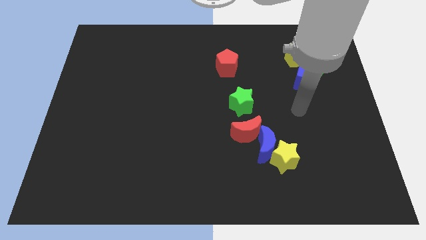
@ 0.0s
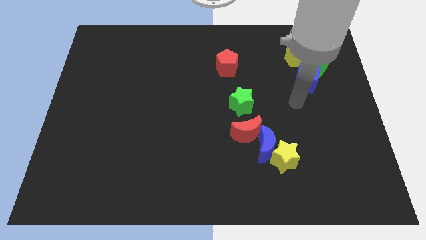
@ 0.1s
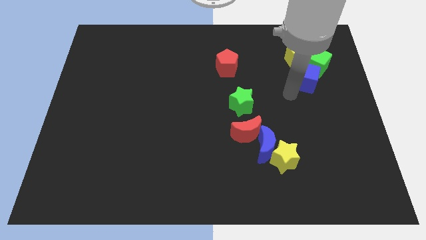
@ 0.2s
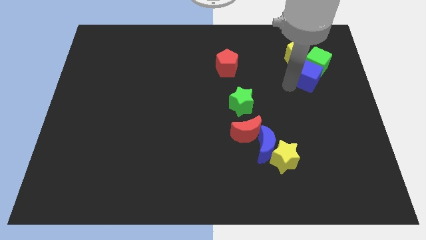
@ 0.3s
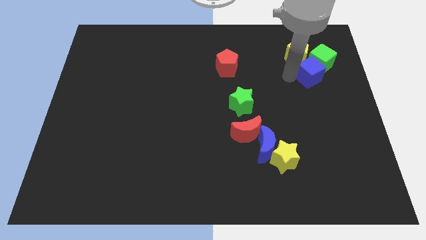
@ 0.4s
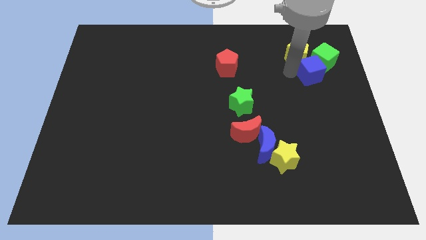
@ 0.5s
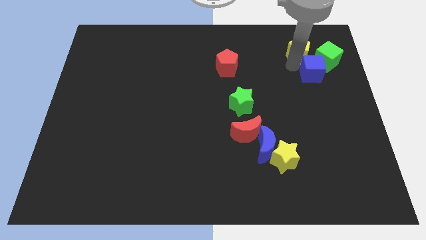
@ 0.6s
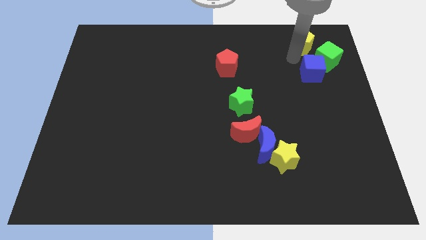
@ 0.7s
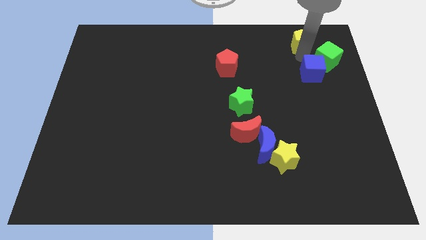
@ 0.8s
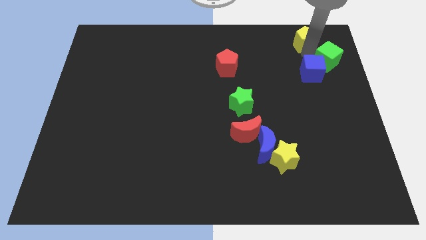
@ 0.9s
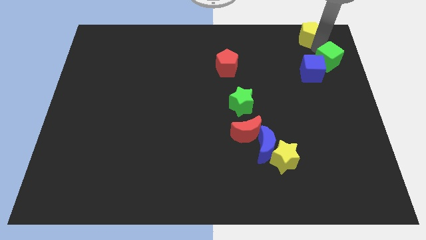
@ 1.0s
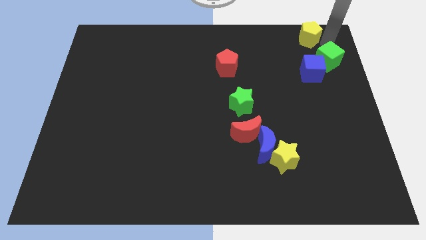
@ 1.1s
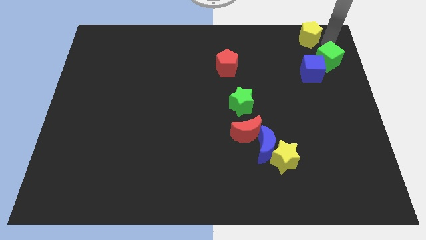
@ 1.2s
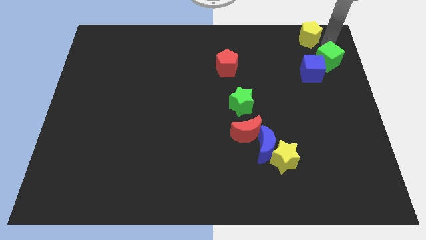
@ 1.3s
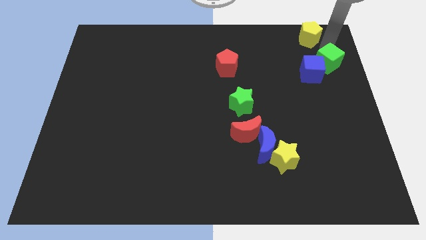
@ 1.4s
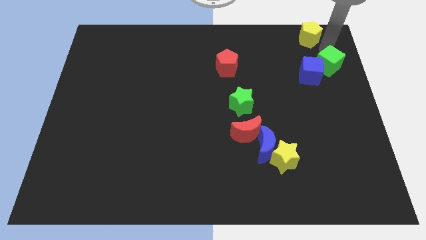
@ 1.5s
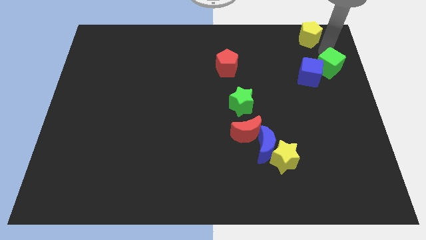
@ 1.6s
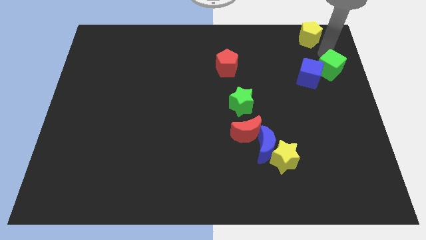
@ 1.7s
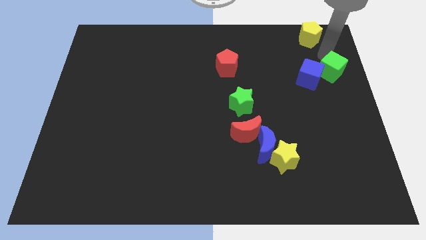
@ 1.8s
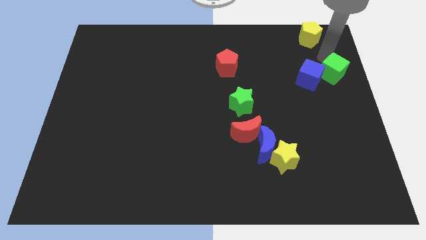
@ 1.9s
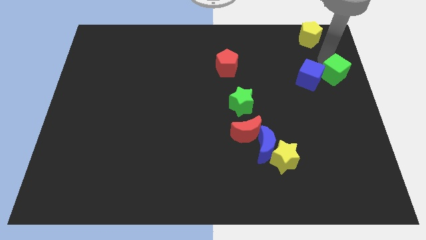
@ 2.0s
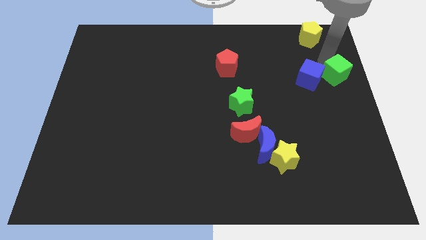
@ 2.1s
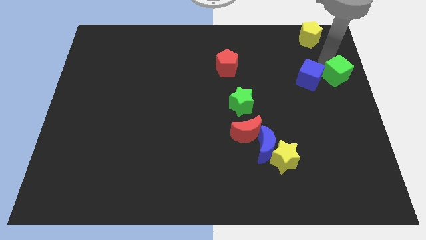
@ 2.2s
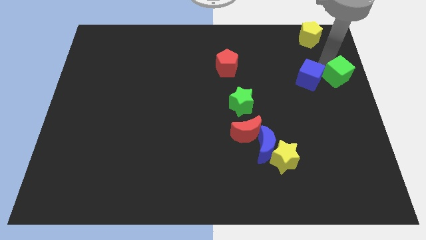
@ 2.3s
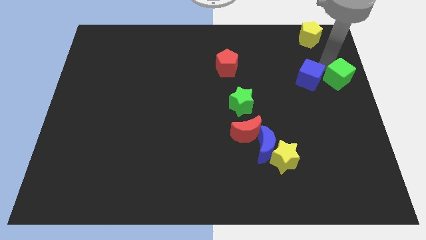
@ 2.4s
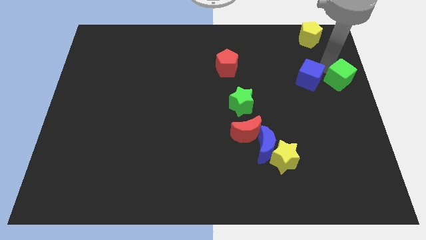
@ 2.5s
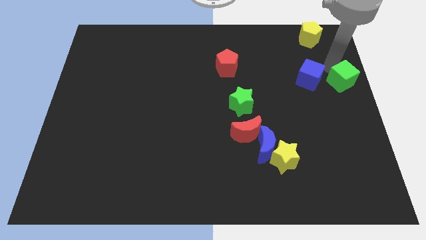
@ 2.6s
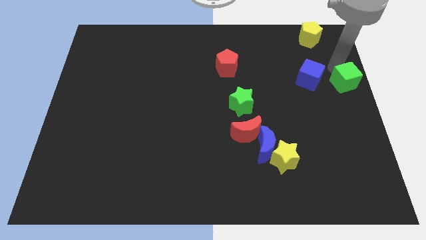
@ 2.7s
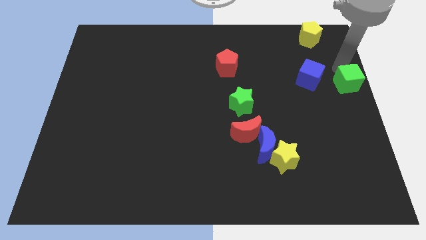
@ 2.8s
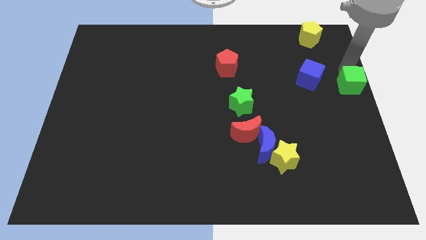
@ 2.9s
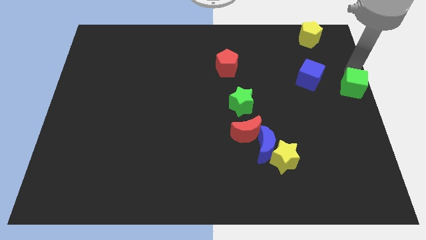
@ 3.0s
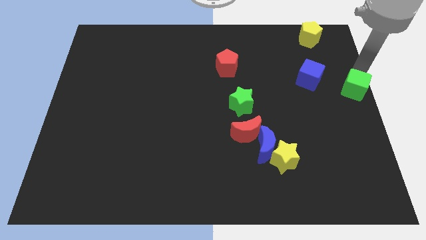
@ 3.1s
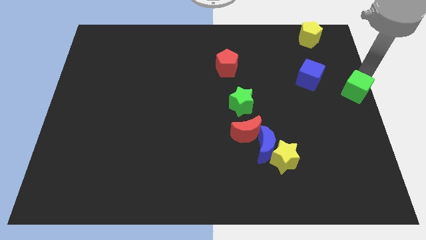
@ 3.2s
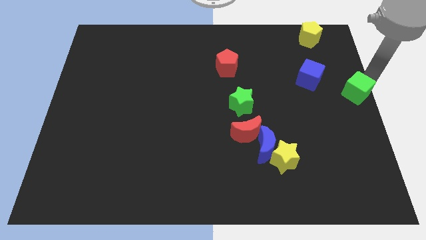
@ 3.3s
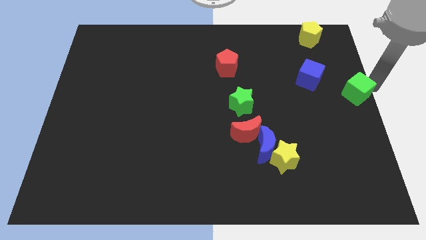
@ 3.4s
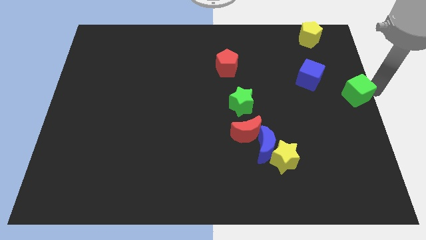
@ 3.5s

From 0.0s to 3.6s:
move the green cube down a little bit

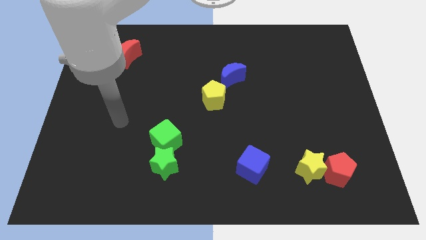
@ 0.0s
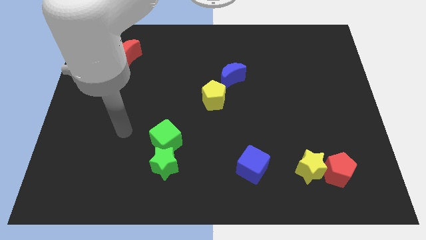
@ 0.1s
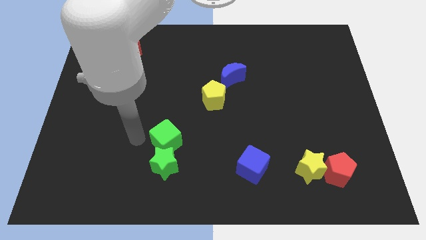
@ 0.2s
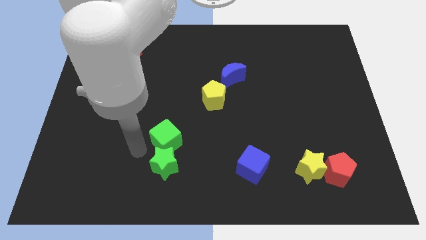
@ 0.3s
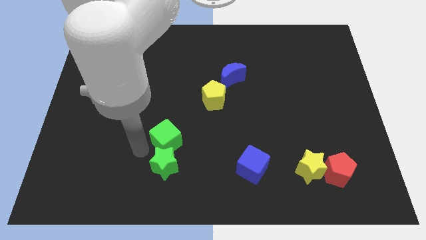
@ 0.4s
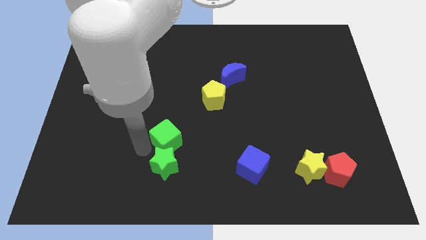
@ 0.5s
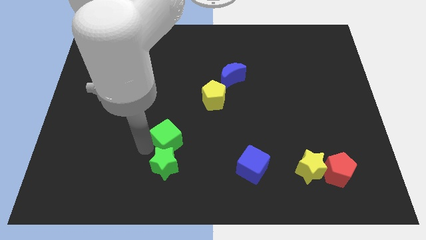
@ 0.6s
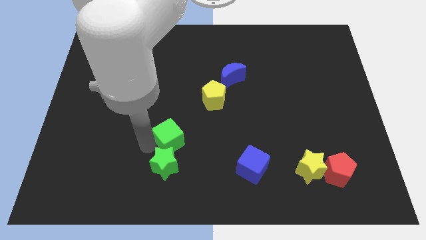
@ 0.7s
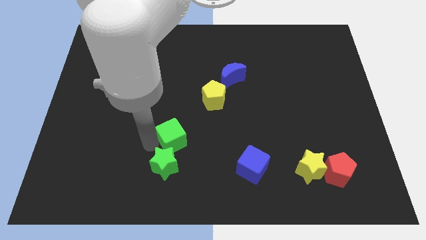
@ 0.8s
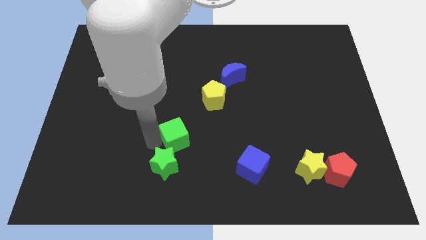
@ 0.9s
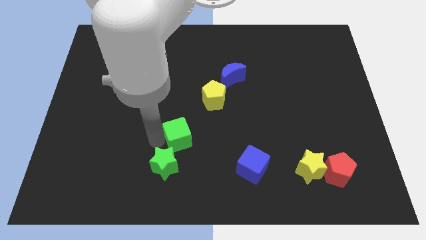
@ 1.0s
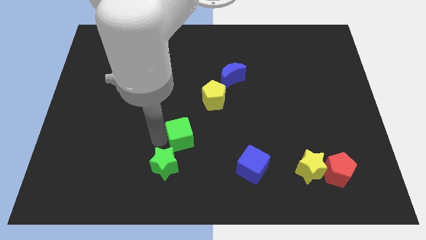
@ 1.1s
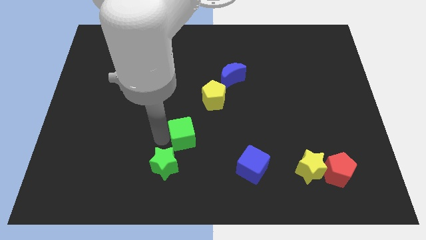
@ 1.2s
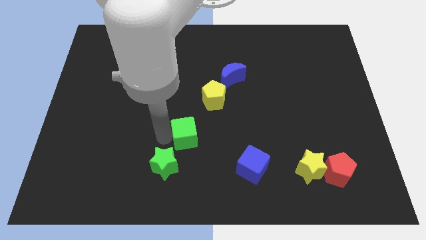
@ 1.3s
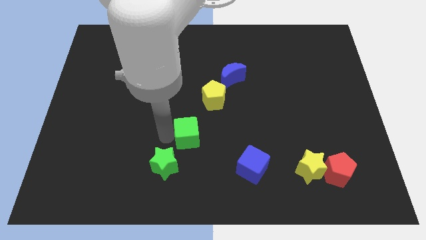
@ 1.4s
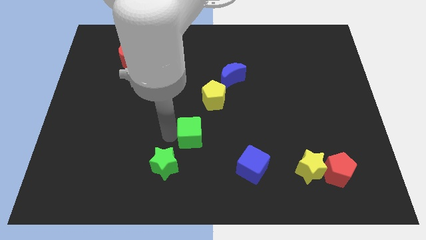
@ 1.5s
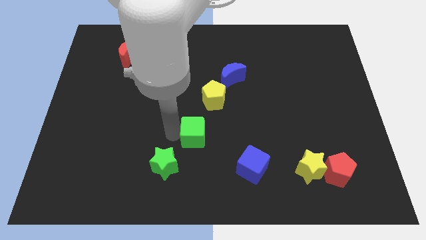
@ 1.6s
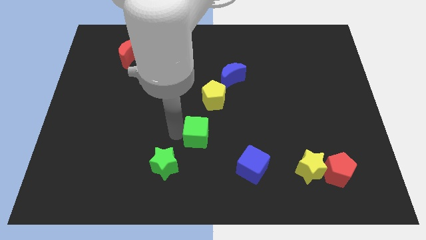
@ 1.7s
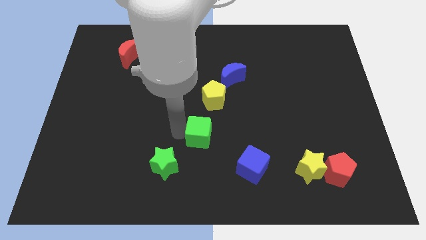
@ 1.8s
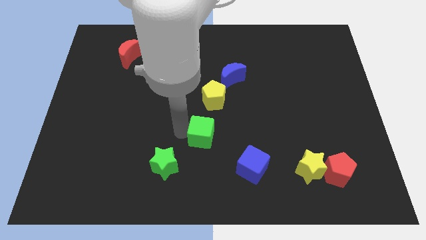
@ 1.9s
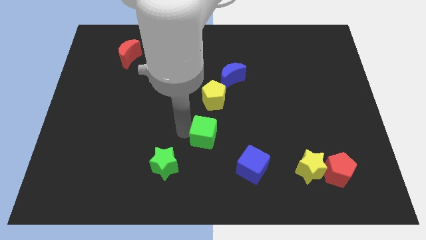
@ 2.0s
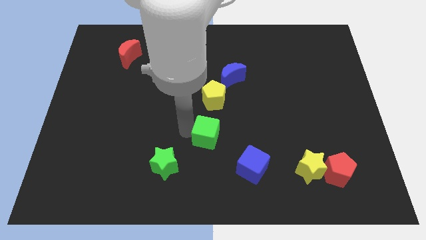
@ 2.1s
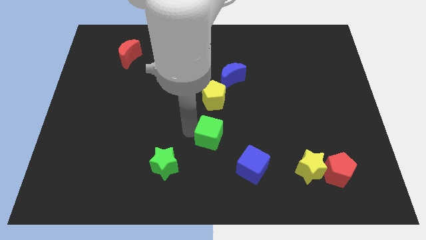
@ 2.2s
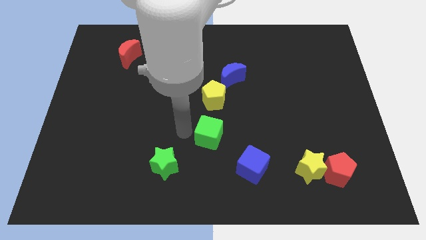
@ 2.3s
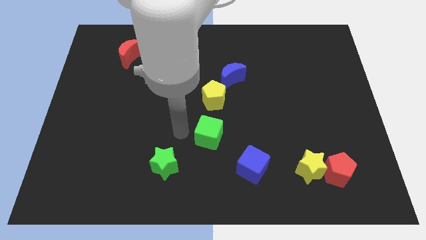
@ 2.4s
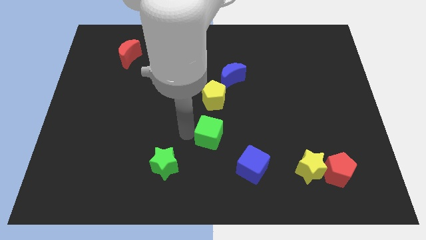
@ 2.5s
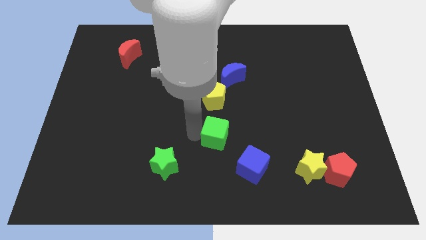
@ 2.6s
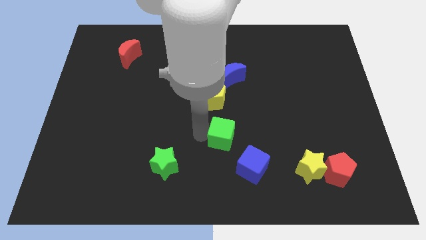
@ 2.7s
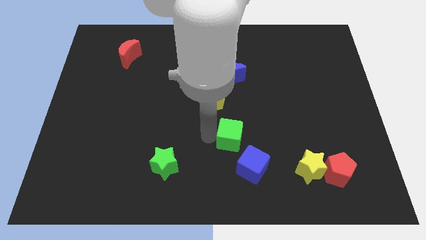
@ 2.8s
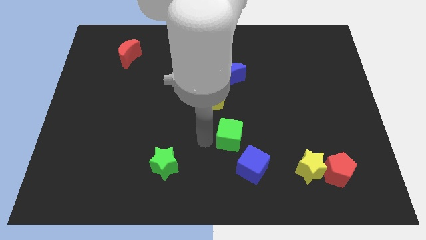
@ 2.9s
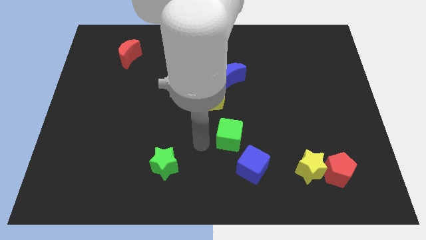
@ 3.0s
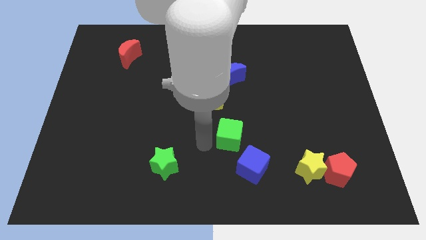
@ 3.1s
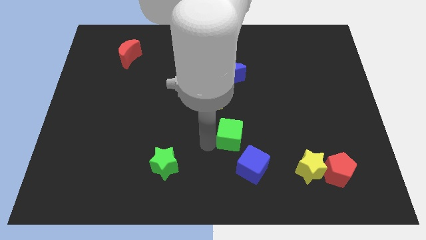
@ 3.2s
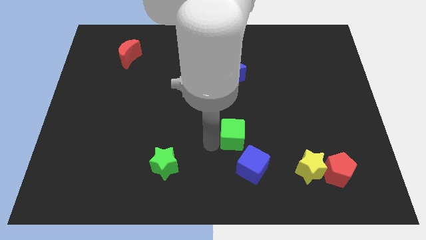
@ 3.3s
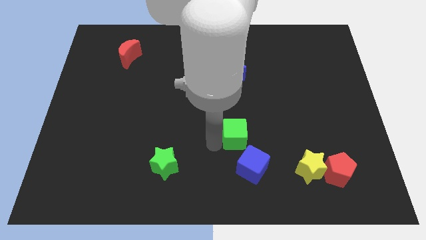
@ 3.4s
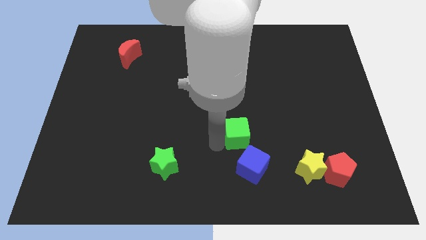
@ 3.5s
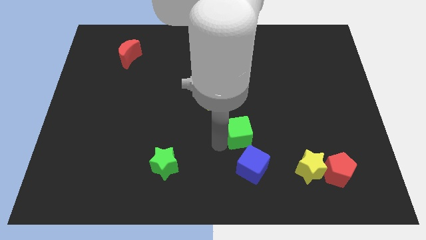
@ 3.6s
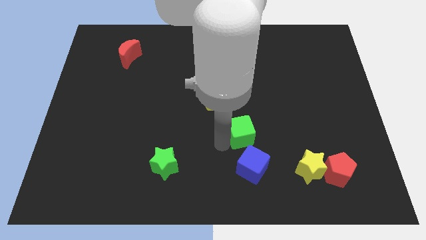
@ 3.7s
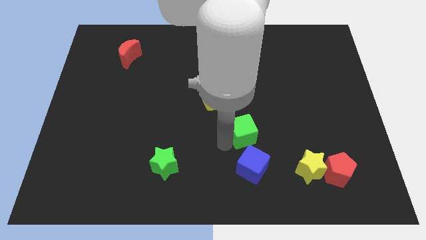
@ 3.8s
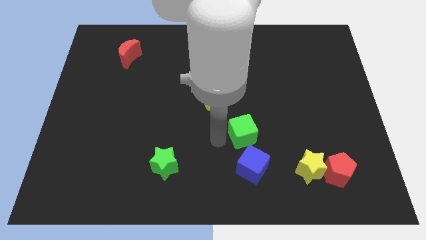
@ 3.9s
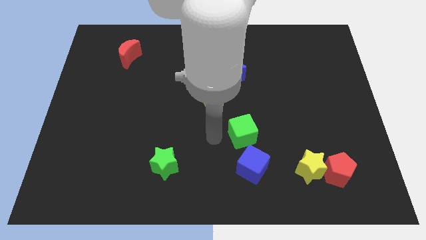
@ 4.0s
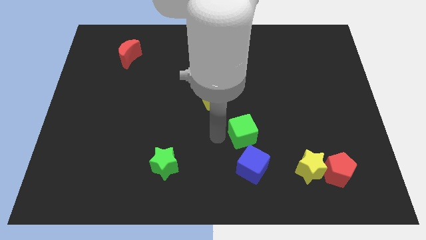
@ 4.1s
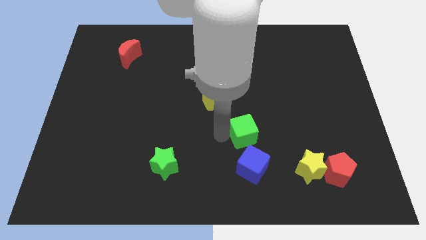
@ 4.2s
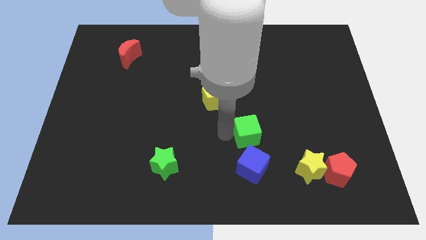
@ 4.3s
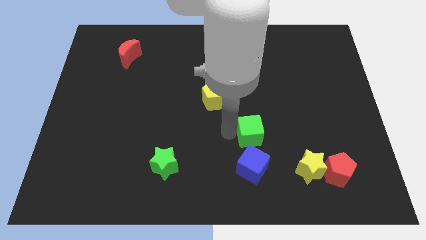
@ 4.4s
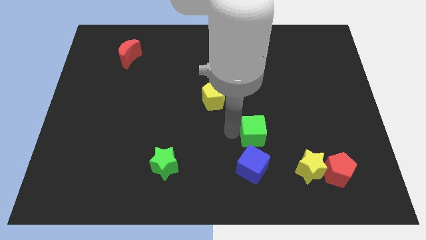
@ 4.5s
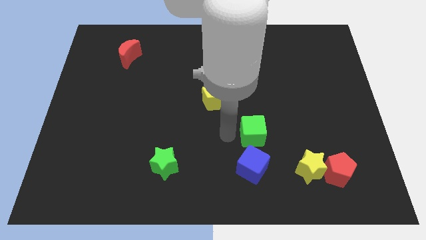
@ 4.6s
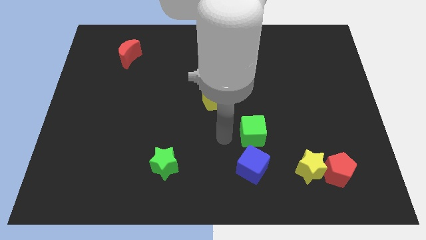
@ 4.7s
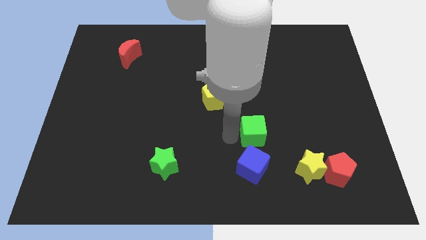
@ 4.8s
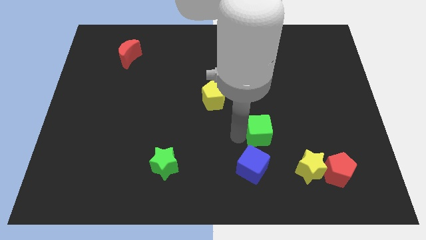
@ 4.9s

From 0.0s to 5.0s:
push the green cube right
